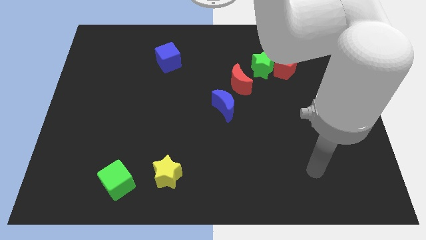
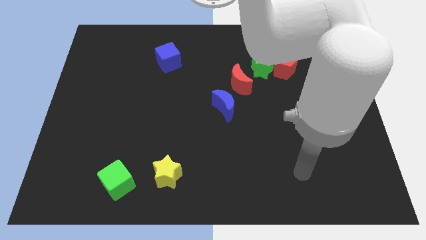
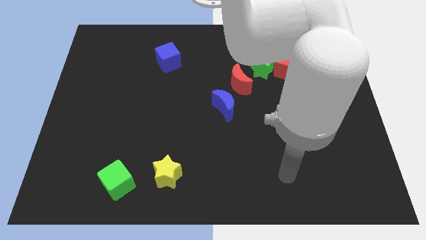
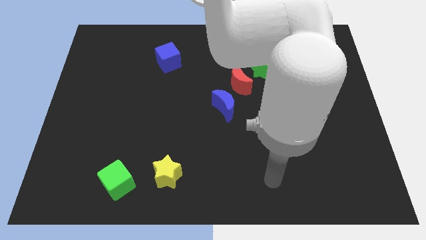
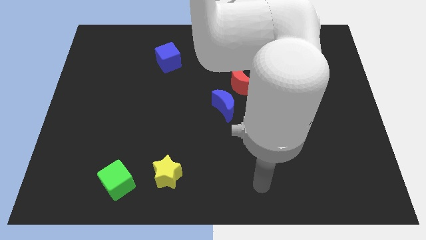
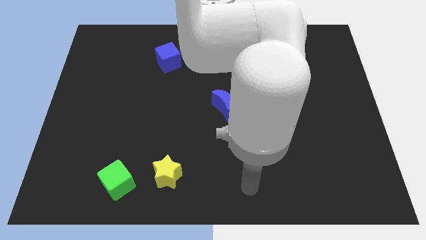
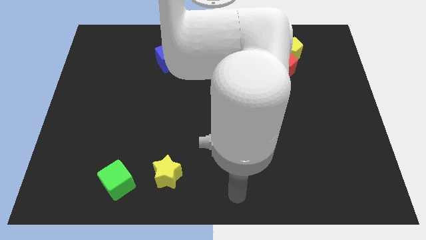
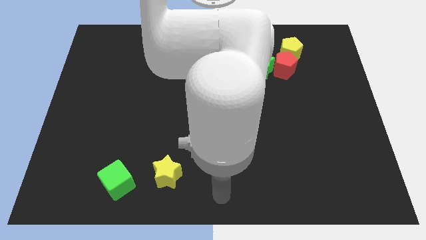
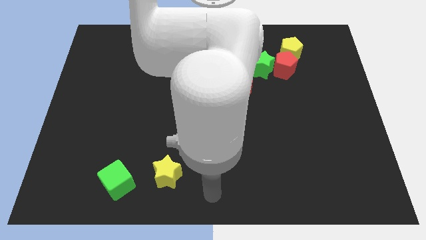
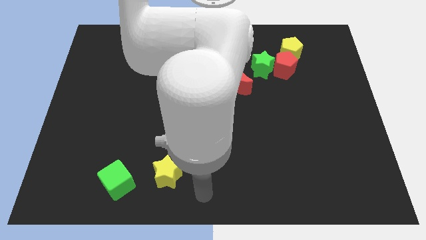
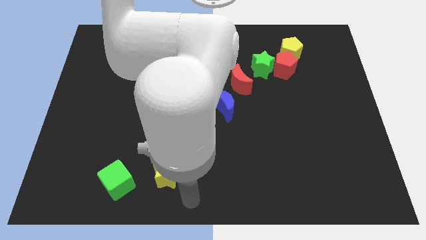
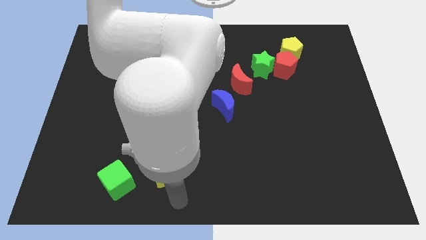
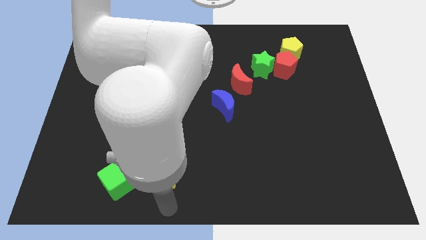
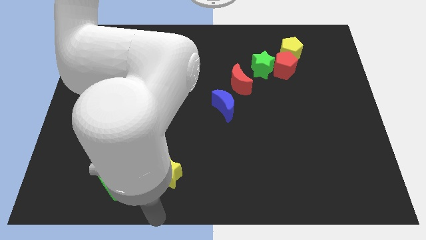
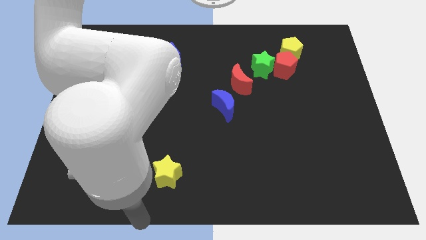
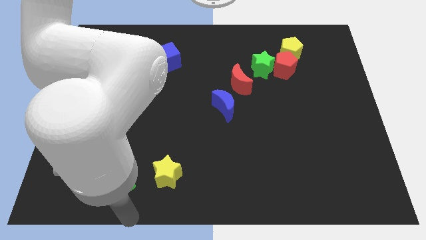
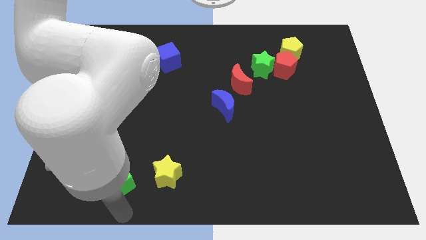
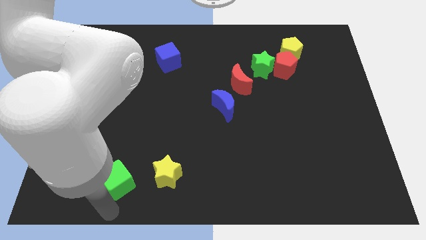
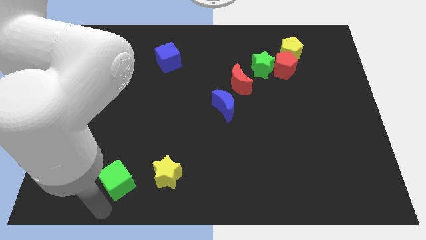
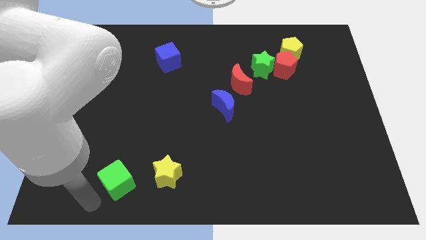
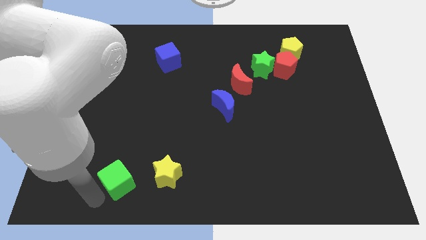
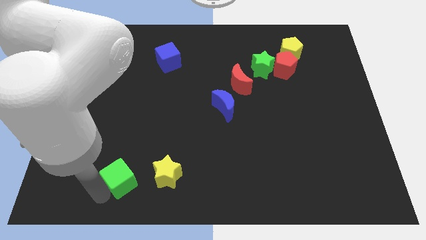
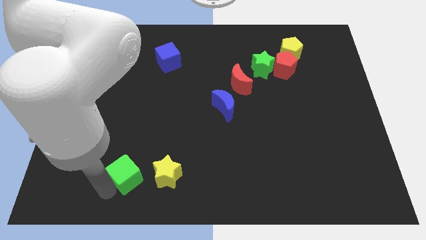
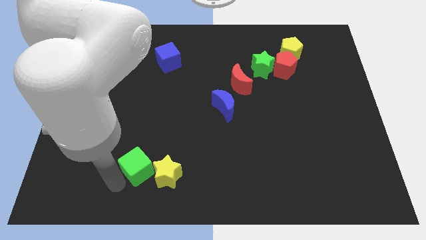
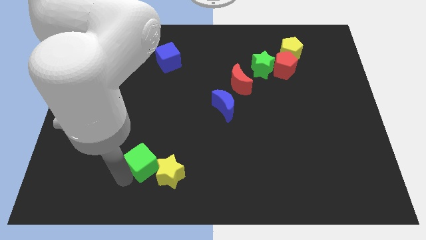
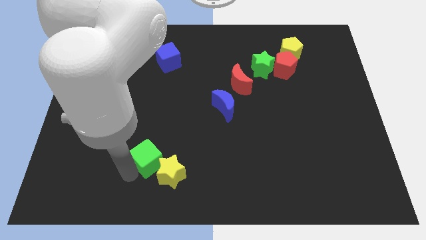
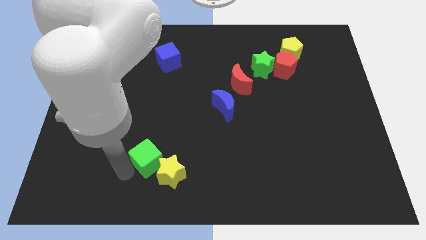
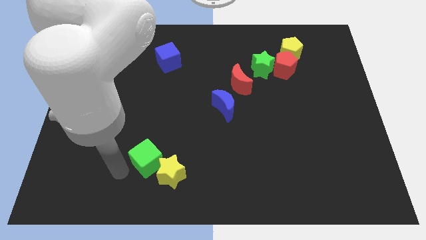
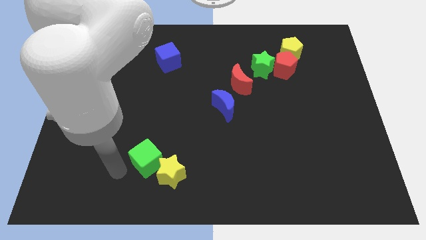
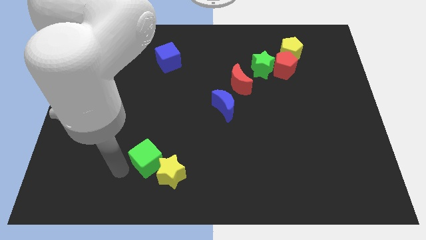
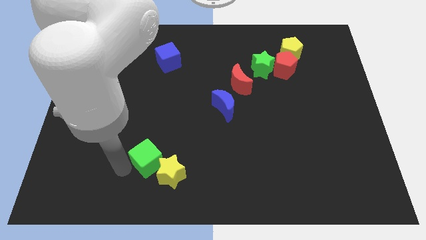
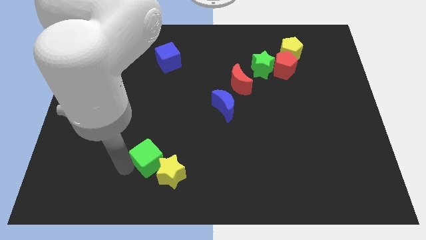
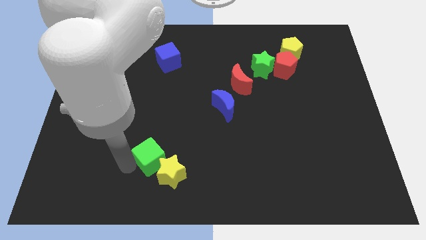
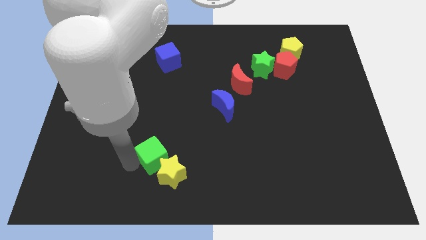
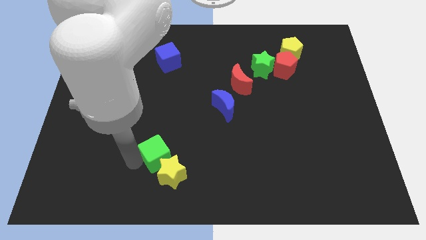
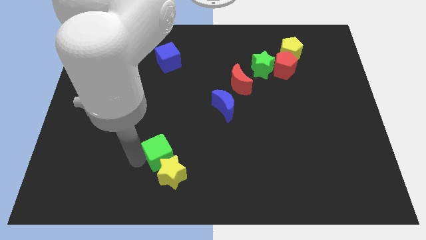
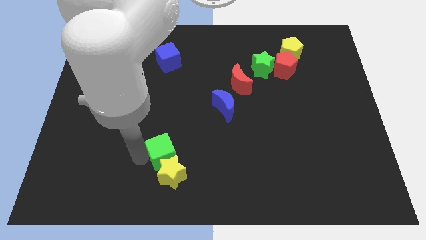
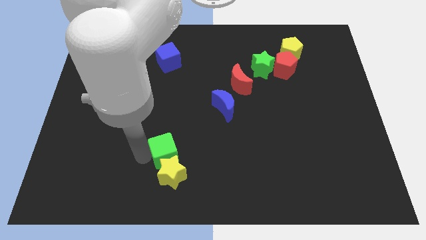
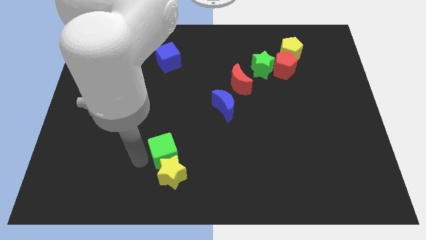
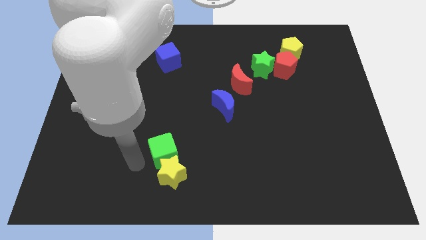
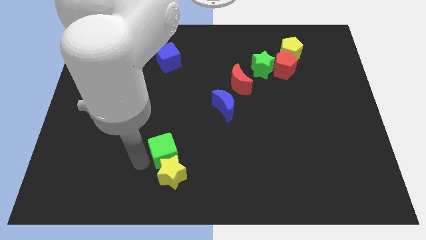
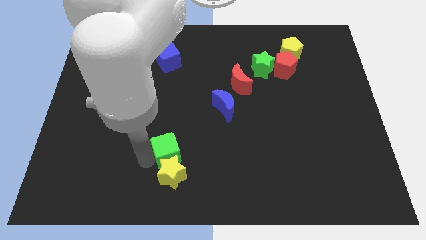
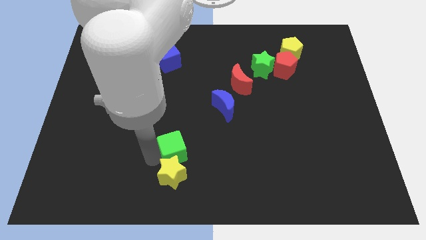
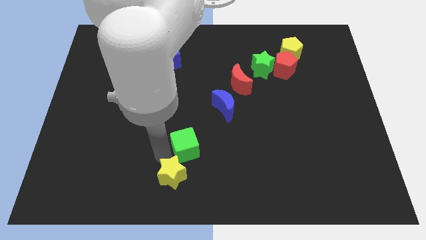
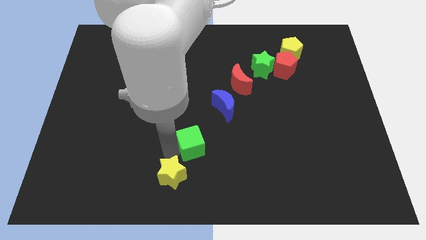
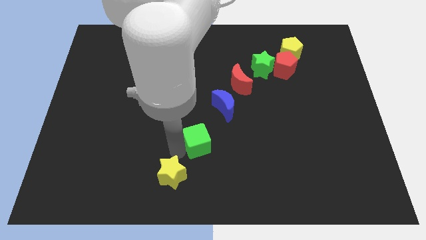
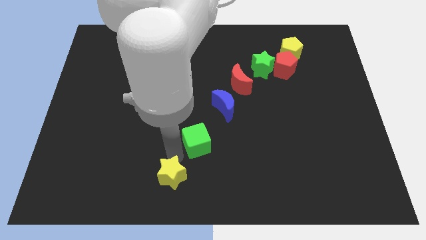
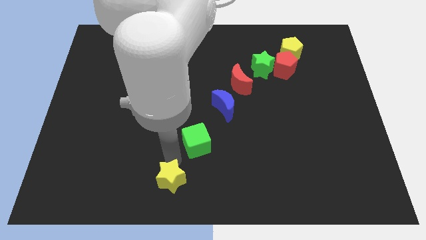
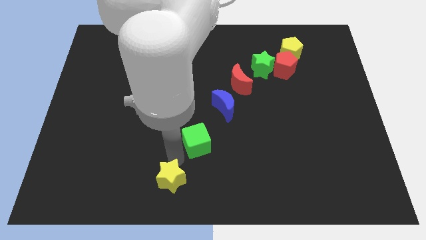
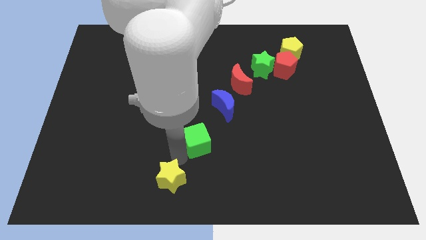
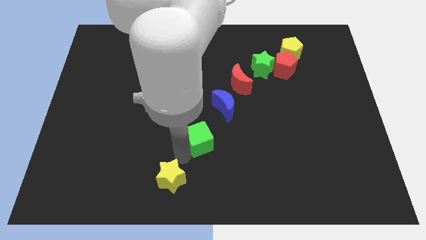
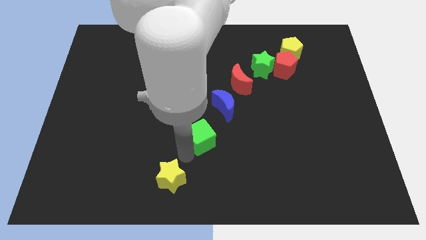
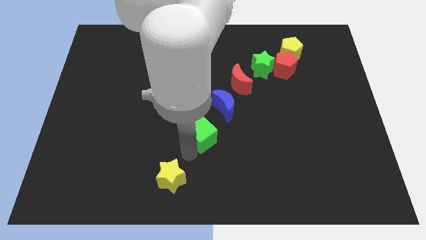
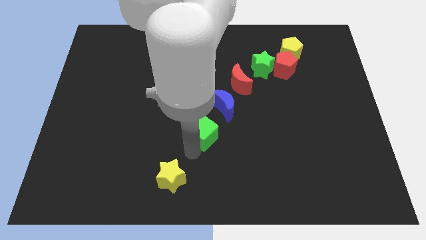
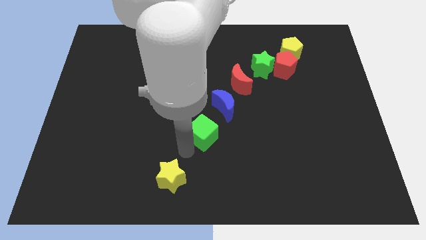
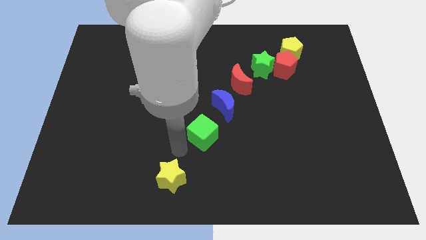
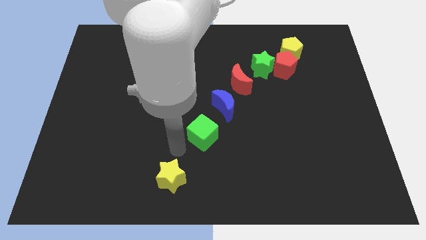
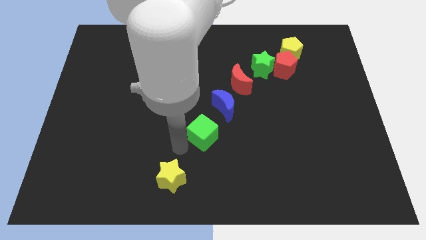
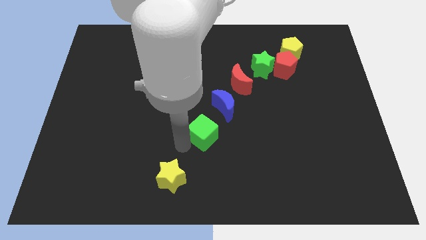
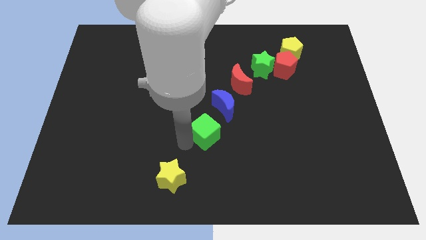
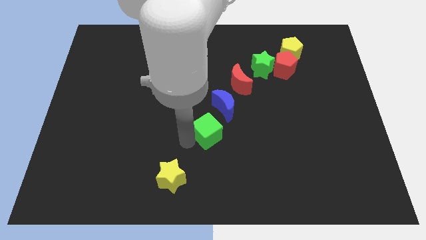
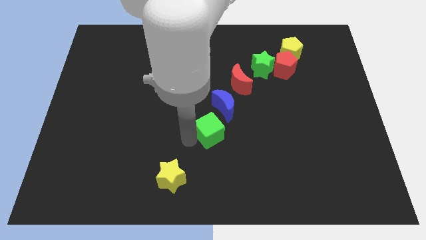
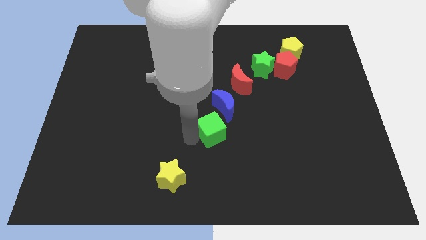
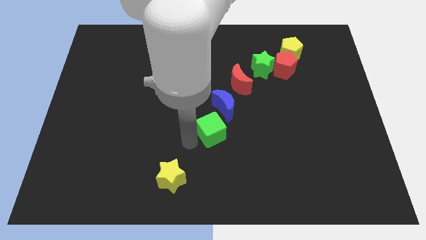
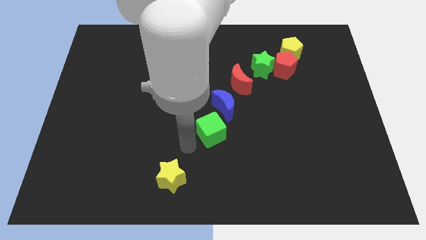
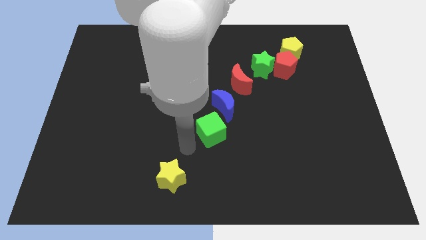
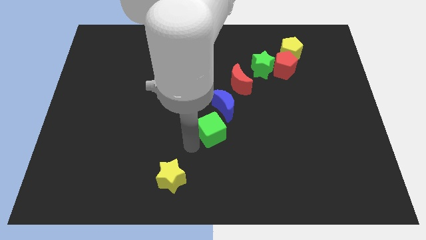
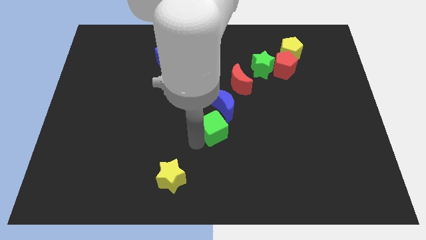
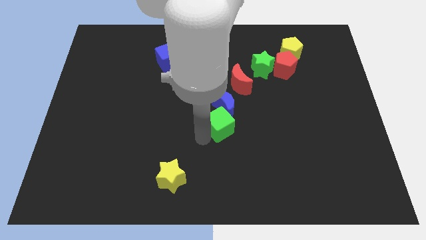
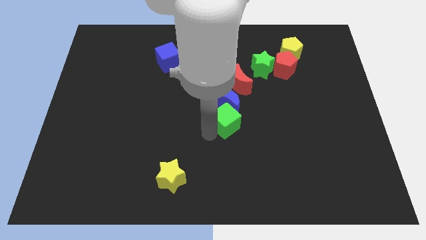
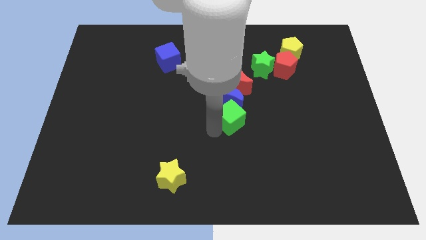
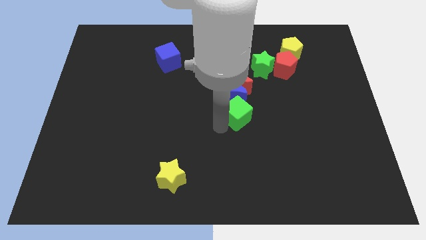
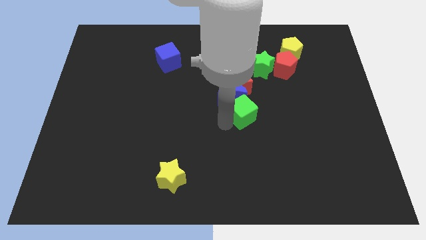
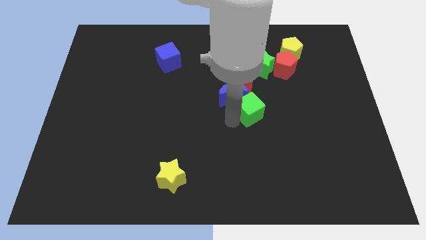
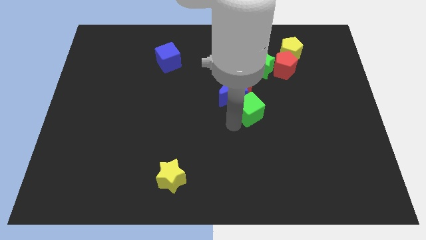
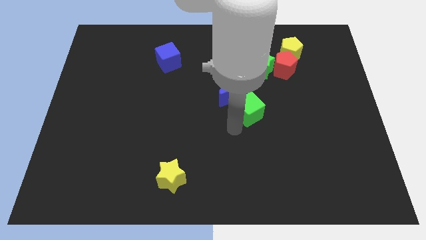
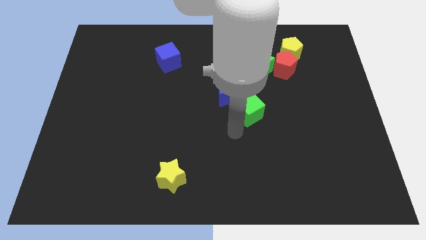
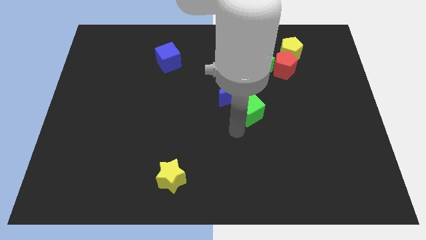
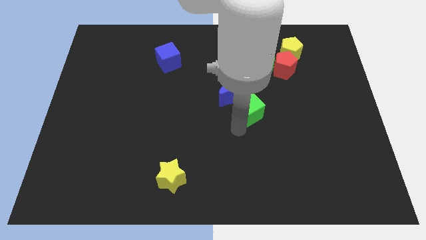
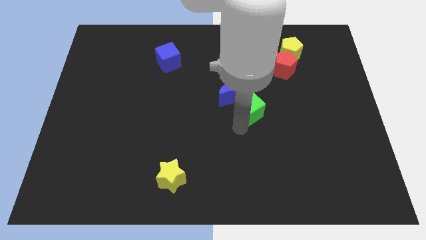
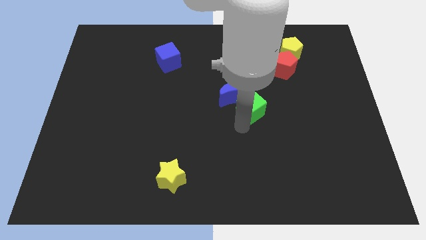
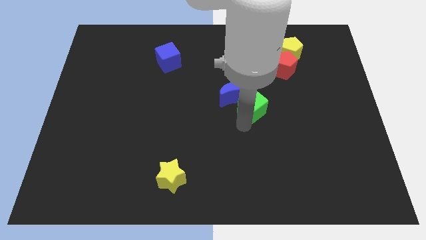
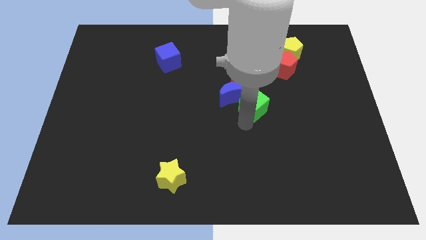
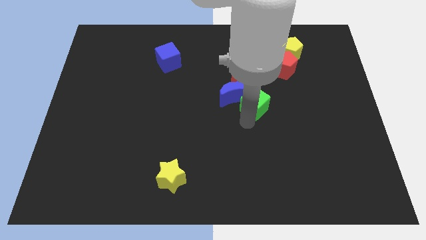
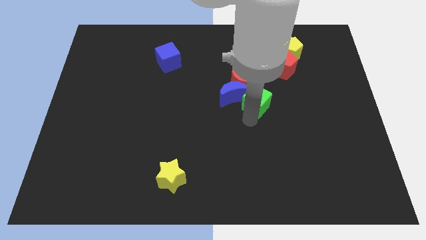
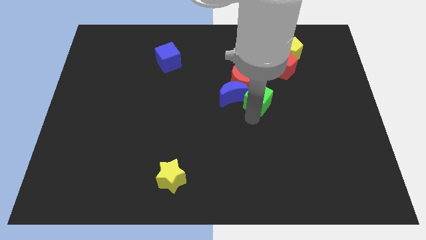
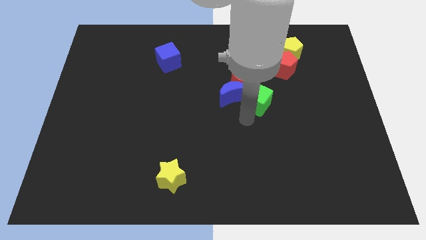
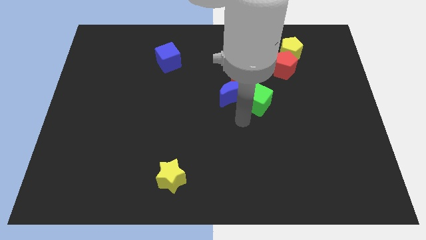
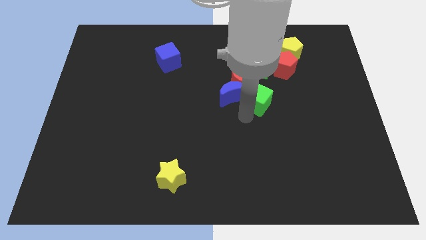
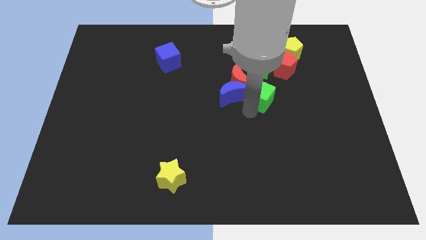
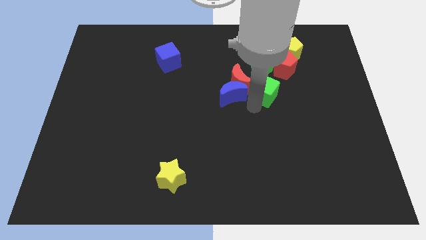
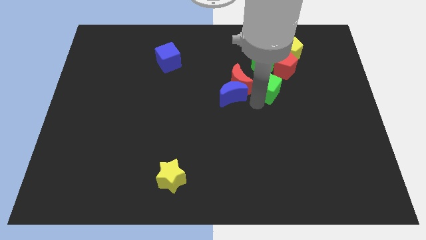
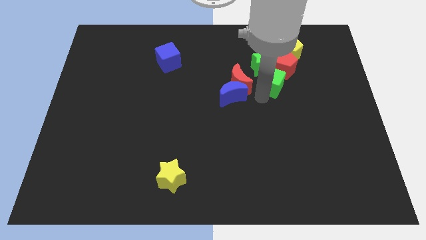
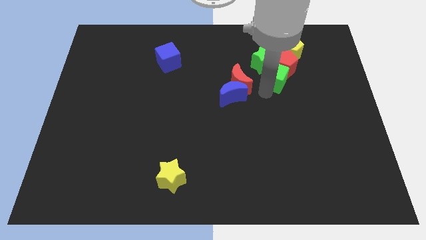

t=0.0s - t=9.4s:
put the green cube towards the red pentagon
